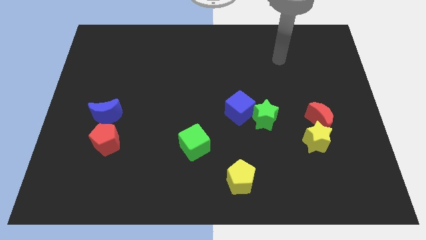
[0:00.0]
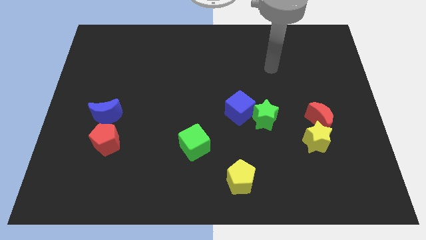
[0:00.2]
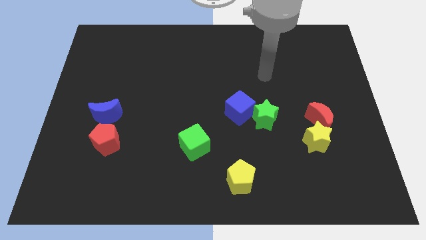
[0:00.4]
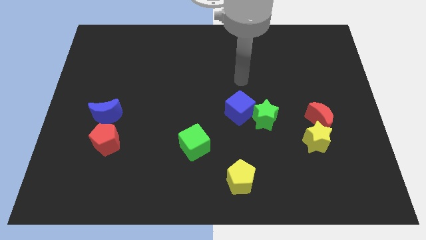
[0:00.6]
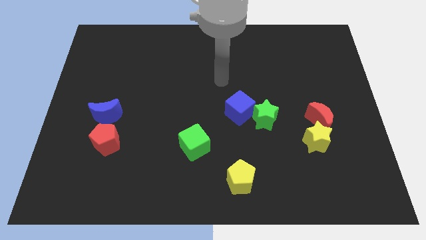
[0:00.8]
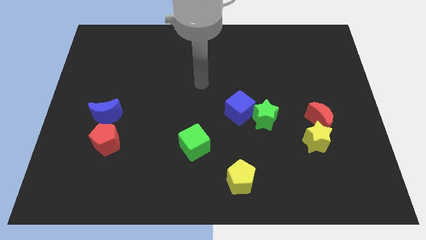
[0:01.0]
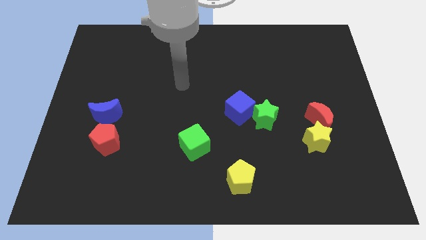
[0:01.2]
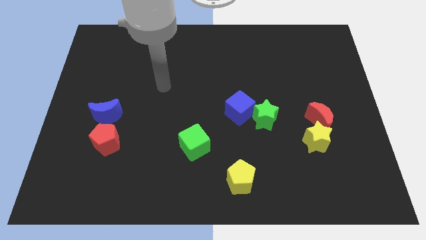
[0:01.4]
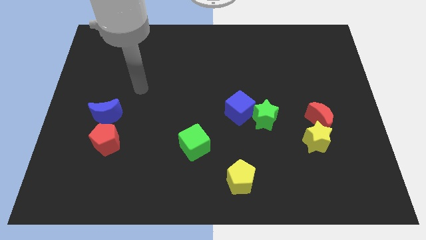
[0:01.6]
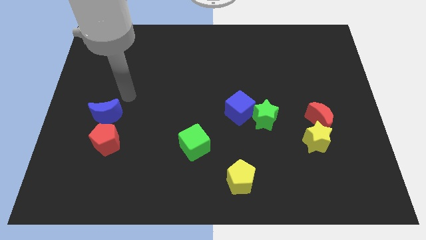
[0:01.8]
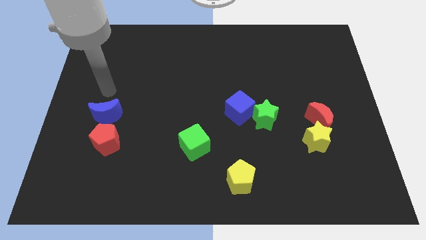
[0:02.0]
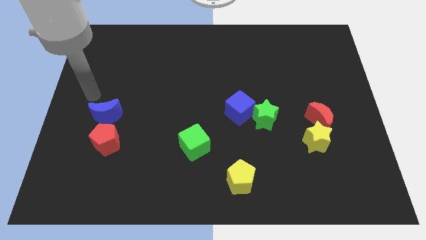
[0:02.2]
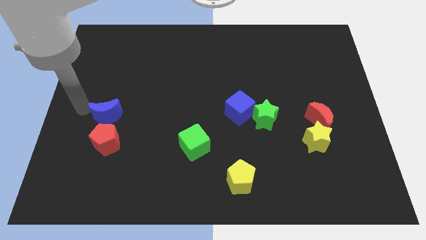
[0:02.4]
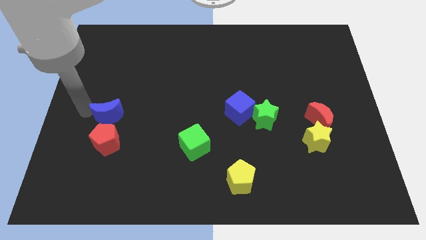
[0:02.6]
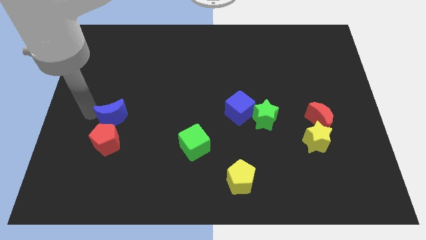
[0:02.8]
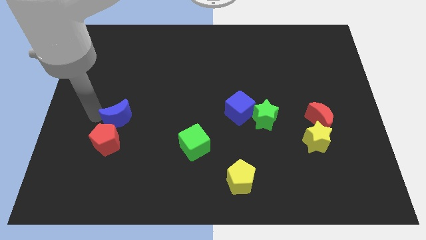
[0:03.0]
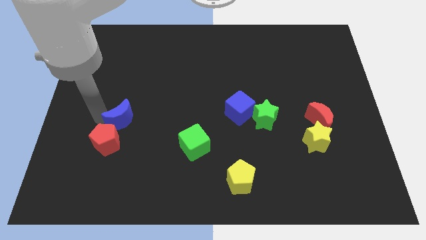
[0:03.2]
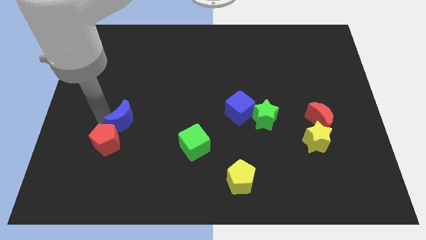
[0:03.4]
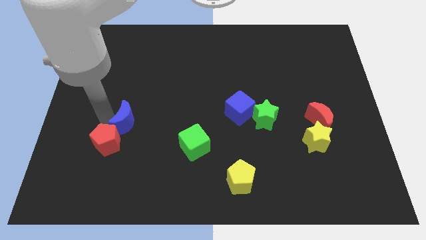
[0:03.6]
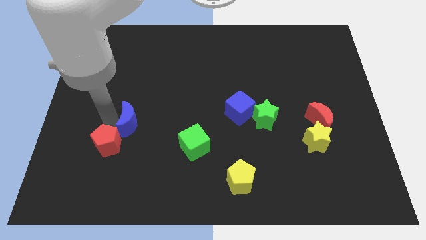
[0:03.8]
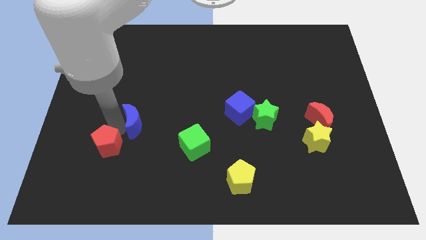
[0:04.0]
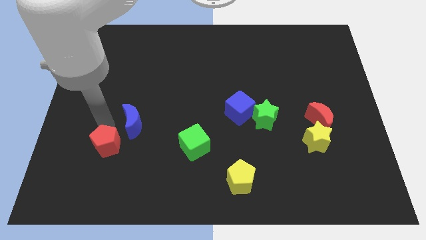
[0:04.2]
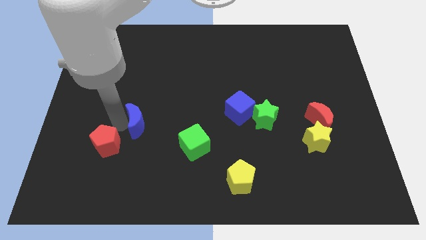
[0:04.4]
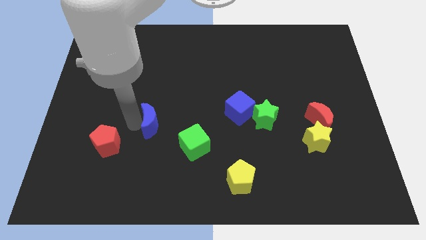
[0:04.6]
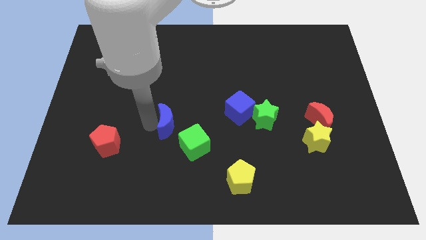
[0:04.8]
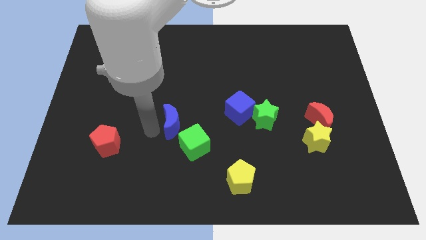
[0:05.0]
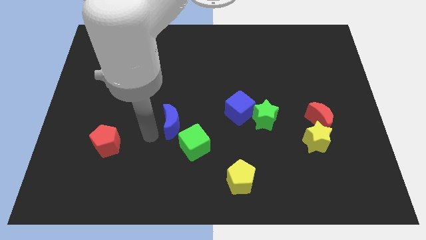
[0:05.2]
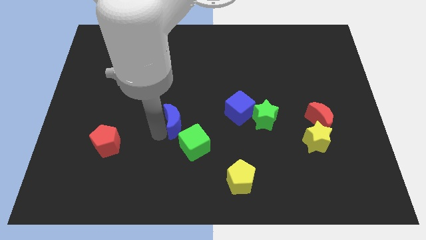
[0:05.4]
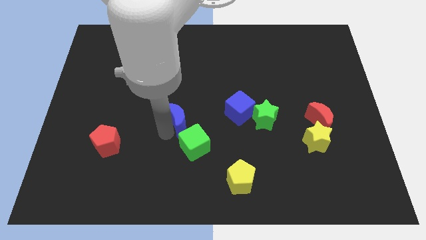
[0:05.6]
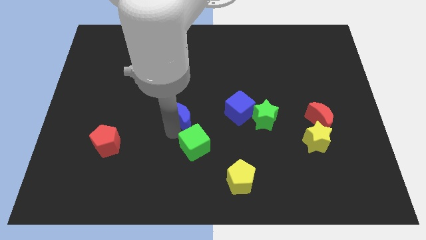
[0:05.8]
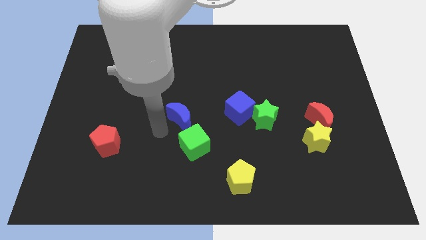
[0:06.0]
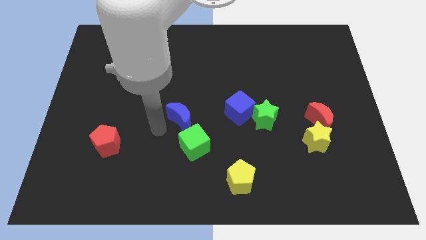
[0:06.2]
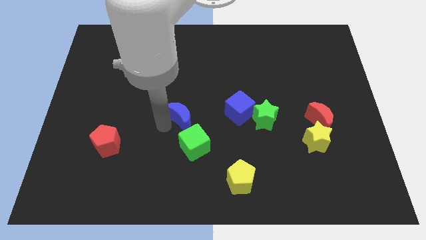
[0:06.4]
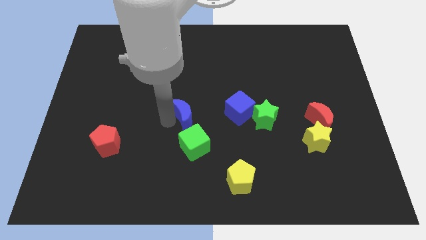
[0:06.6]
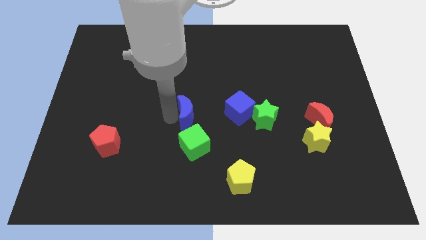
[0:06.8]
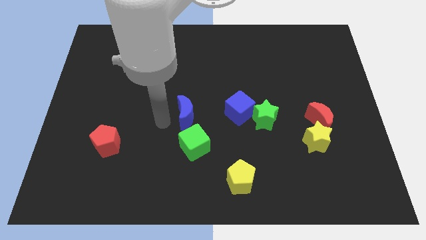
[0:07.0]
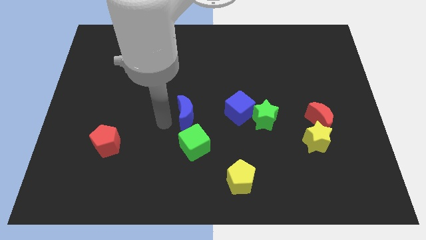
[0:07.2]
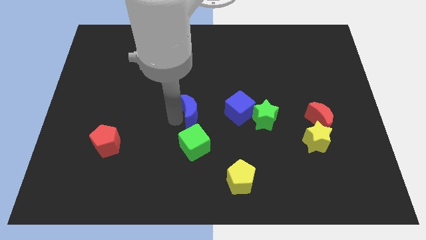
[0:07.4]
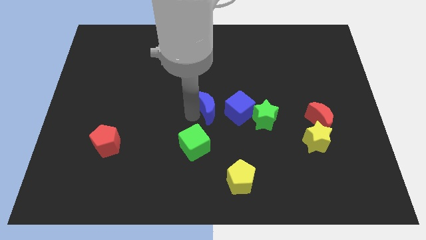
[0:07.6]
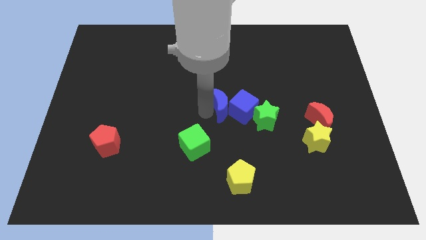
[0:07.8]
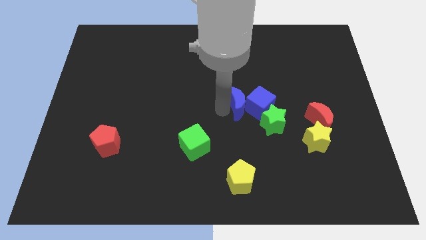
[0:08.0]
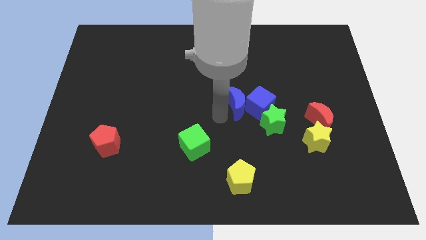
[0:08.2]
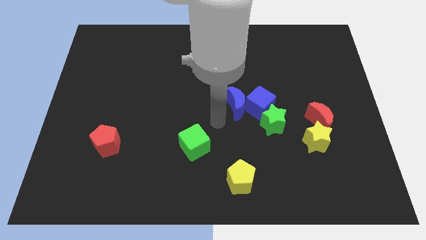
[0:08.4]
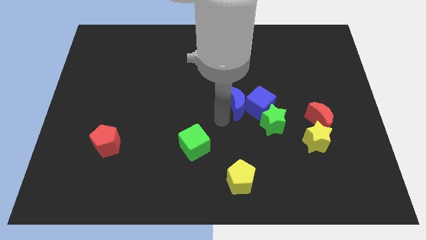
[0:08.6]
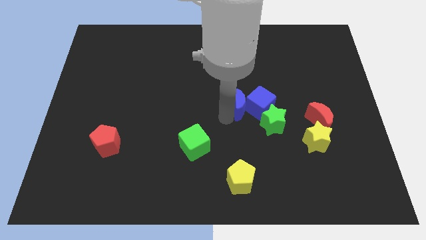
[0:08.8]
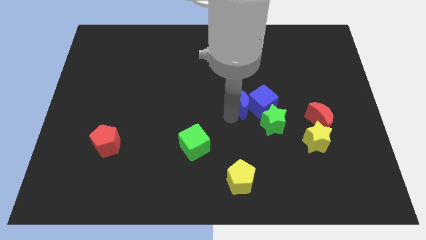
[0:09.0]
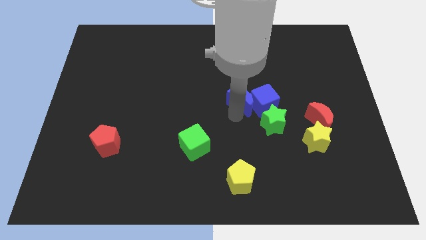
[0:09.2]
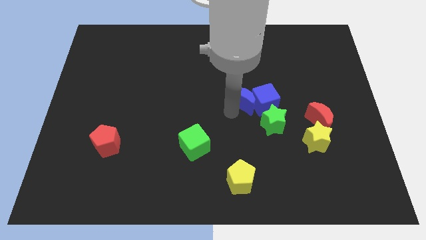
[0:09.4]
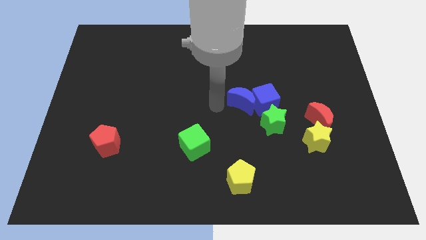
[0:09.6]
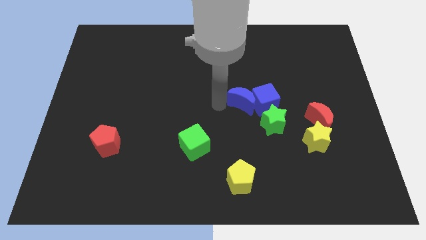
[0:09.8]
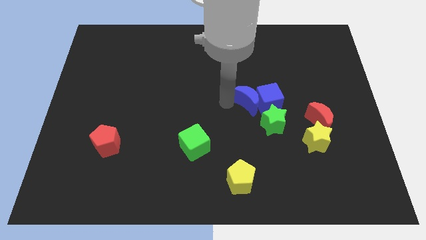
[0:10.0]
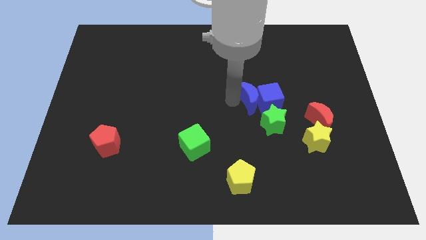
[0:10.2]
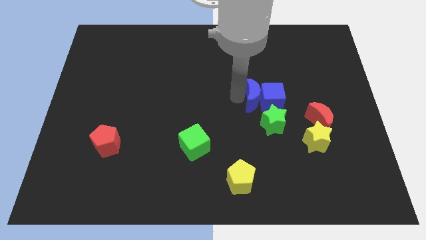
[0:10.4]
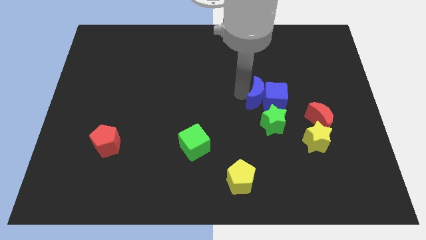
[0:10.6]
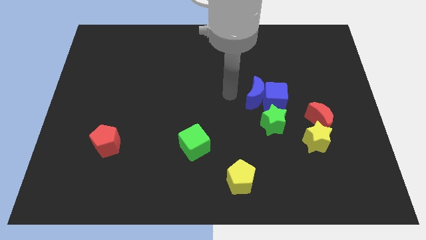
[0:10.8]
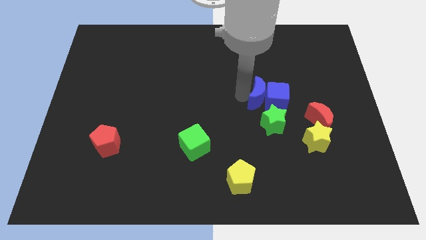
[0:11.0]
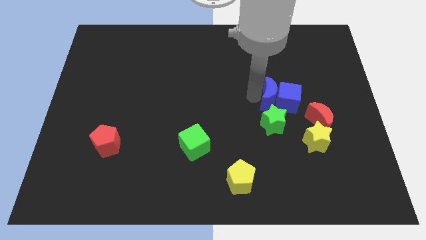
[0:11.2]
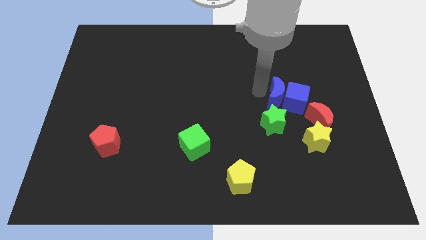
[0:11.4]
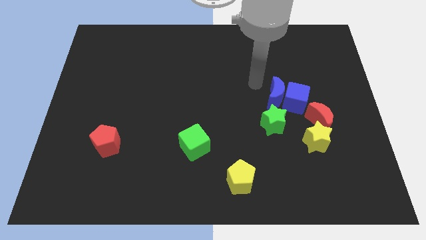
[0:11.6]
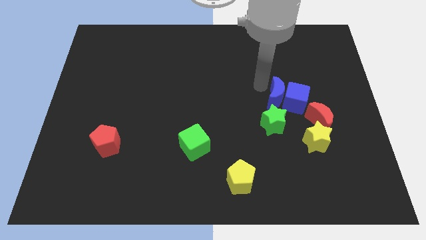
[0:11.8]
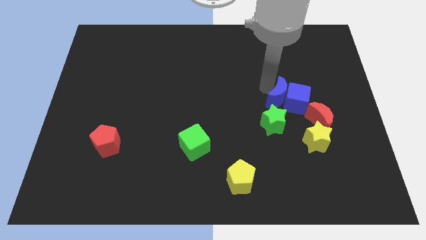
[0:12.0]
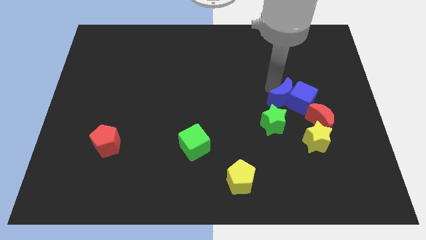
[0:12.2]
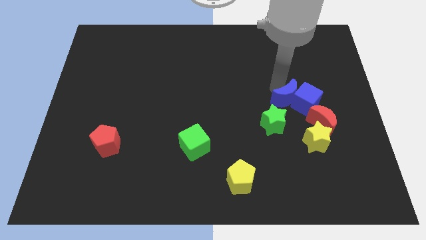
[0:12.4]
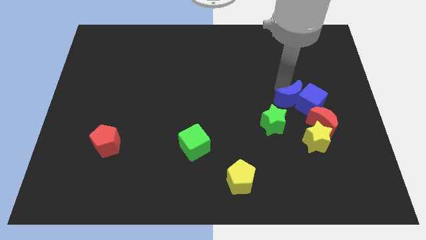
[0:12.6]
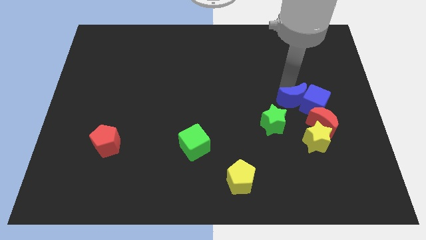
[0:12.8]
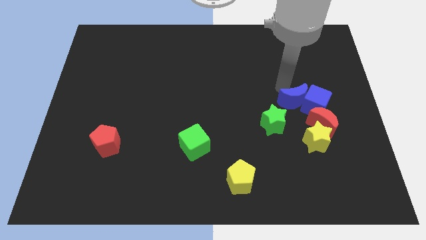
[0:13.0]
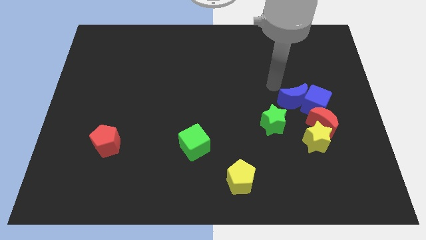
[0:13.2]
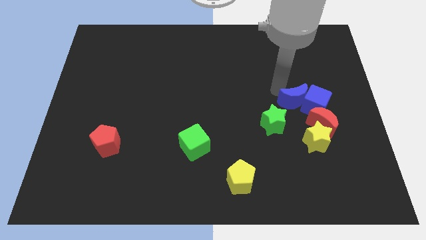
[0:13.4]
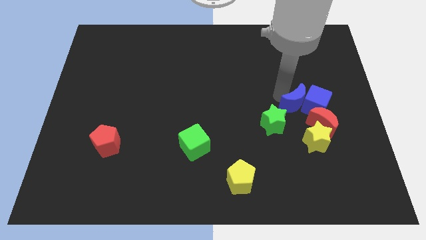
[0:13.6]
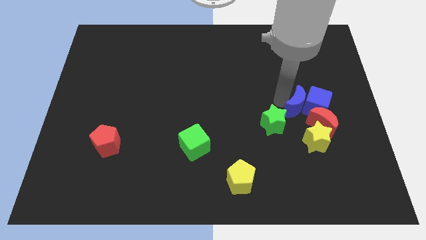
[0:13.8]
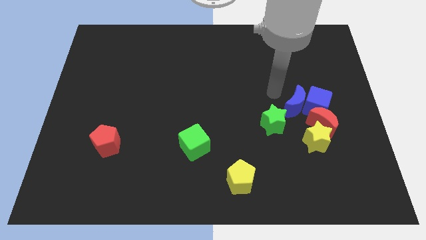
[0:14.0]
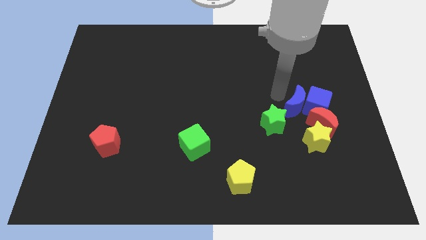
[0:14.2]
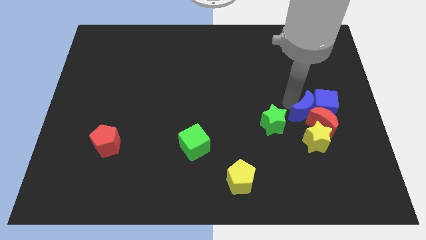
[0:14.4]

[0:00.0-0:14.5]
move the blue moon towards the red moon

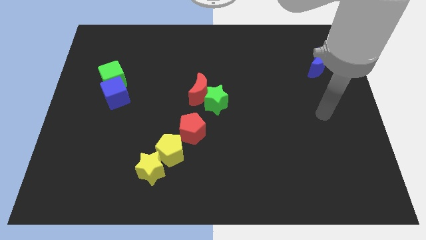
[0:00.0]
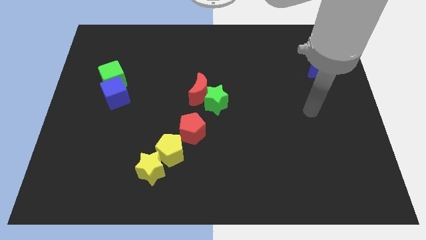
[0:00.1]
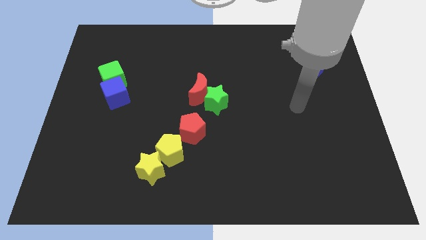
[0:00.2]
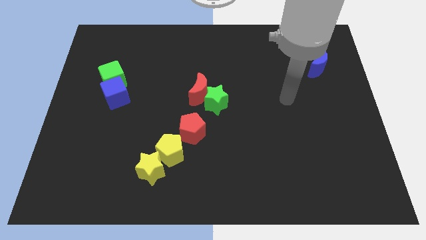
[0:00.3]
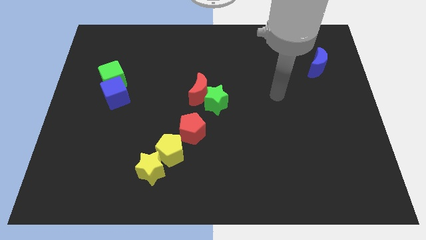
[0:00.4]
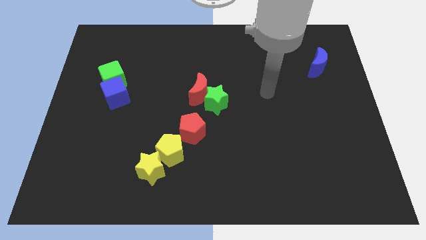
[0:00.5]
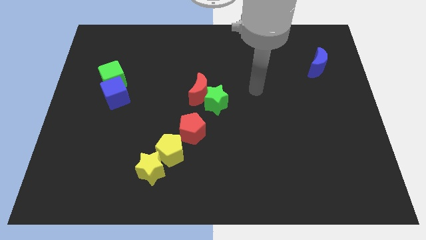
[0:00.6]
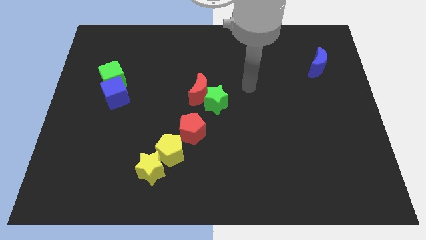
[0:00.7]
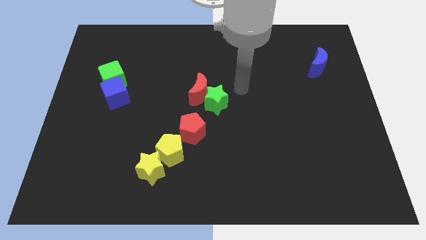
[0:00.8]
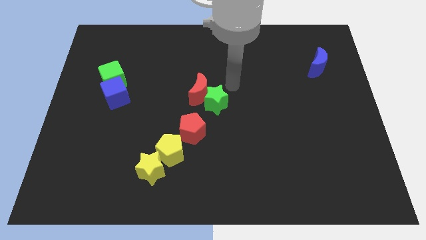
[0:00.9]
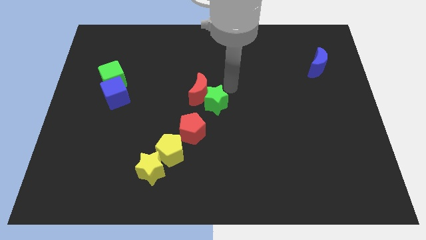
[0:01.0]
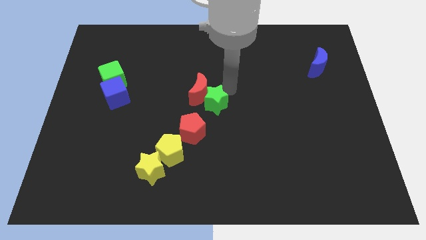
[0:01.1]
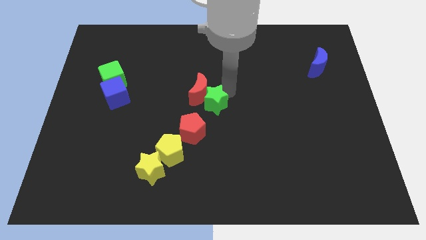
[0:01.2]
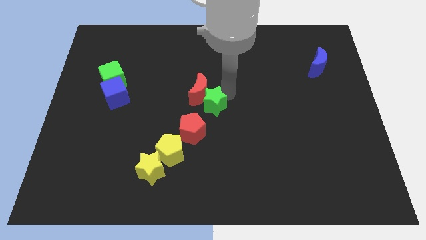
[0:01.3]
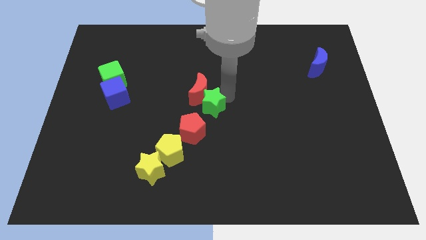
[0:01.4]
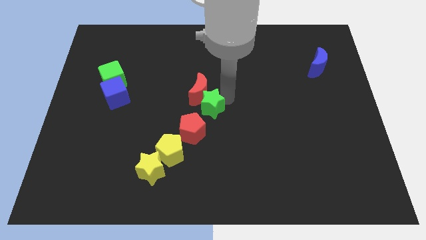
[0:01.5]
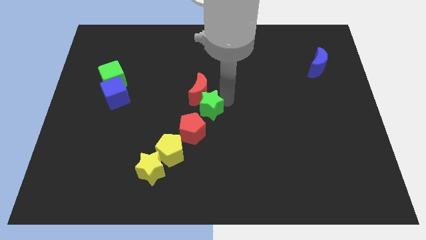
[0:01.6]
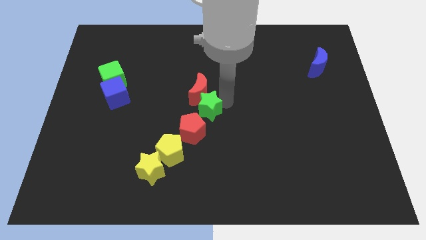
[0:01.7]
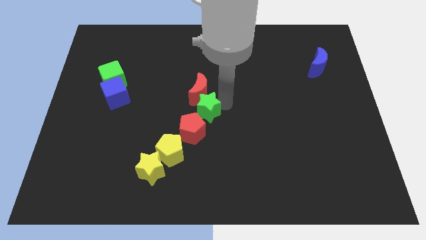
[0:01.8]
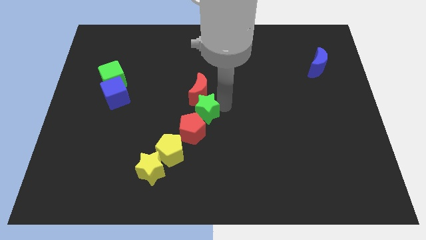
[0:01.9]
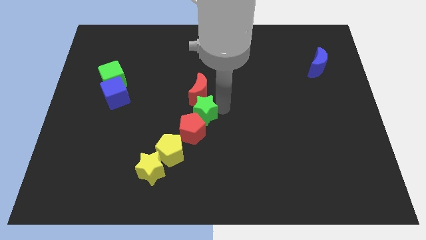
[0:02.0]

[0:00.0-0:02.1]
put the green star next to the red pentagon
